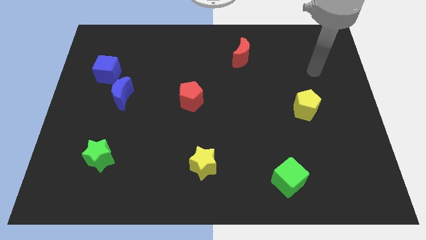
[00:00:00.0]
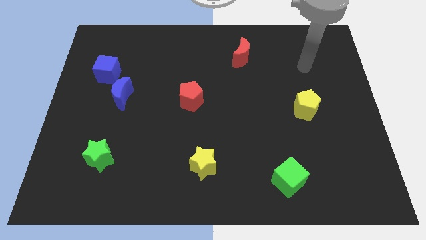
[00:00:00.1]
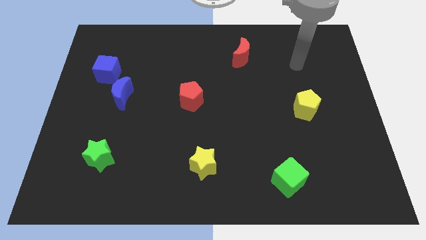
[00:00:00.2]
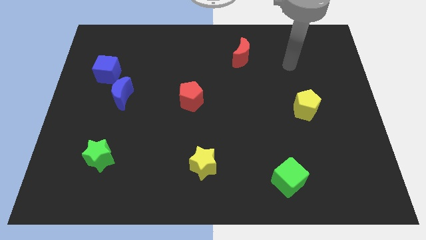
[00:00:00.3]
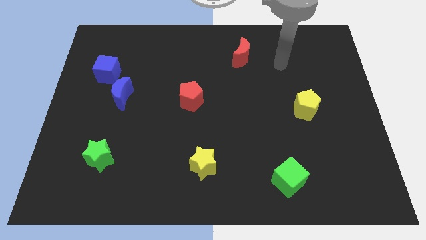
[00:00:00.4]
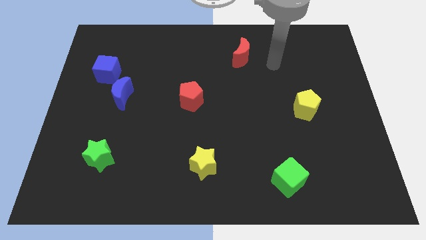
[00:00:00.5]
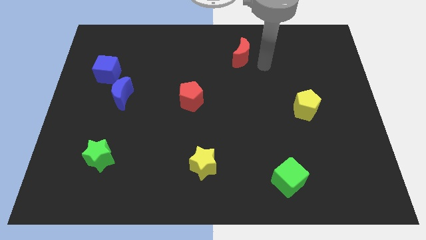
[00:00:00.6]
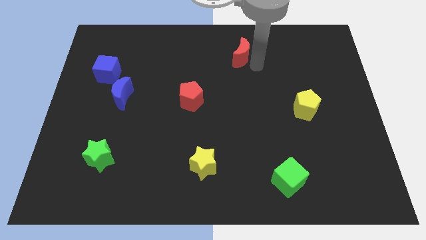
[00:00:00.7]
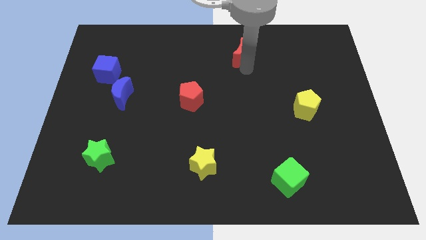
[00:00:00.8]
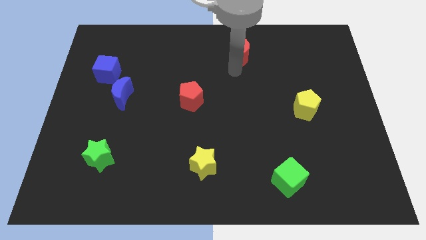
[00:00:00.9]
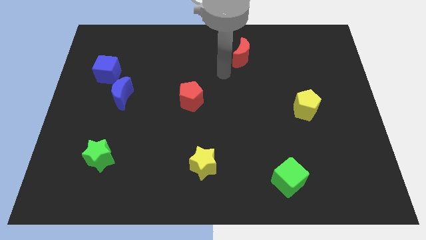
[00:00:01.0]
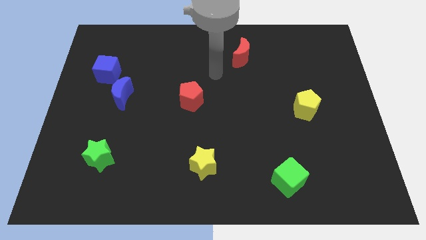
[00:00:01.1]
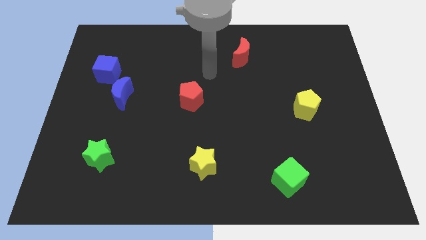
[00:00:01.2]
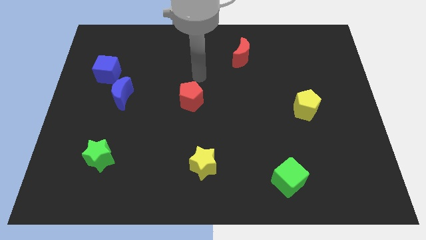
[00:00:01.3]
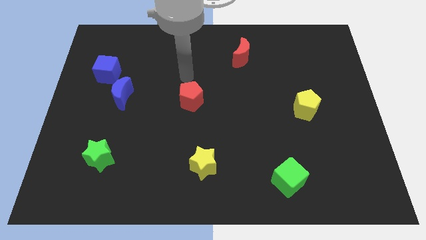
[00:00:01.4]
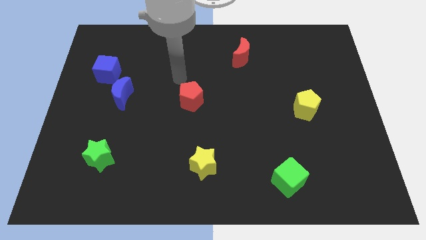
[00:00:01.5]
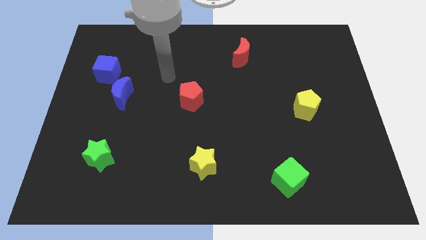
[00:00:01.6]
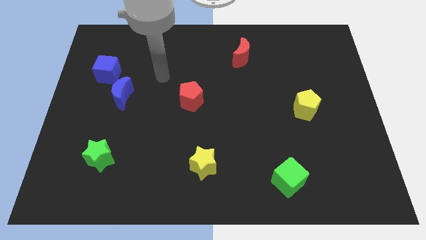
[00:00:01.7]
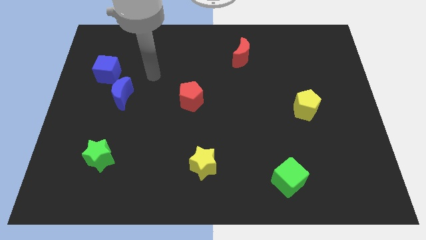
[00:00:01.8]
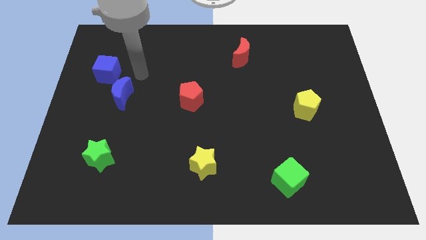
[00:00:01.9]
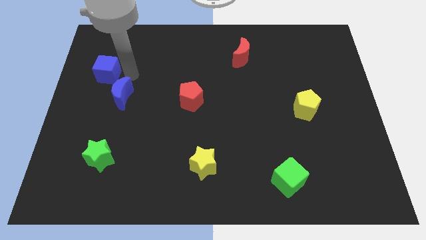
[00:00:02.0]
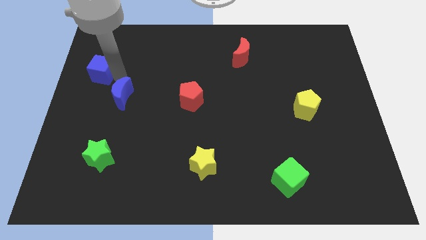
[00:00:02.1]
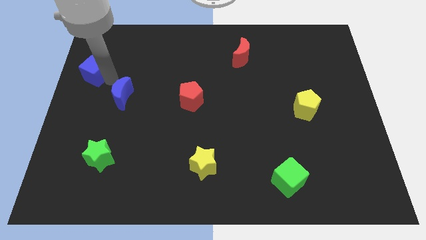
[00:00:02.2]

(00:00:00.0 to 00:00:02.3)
move the blue moon away from the blue cube

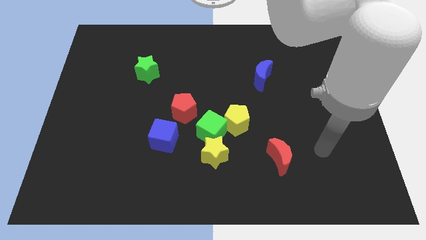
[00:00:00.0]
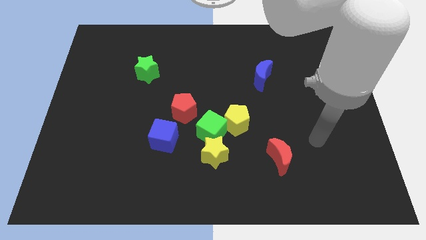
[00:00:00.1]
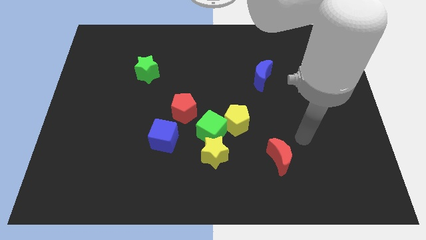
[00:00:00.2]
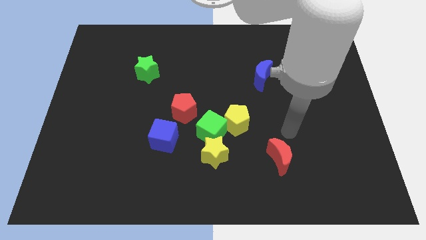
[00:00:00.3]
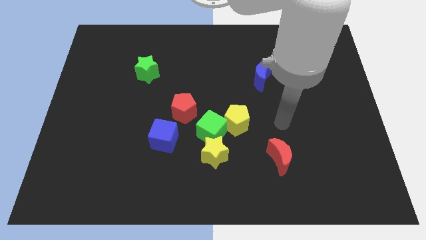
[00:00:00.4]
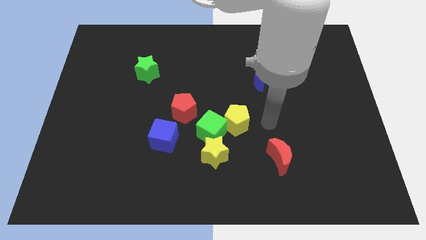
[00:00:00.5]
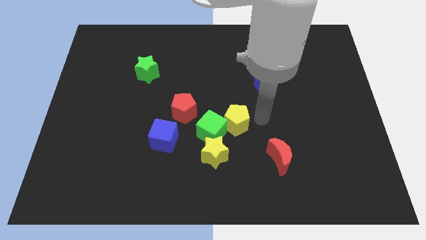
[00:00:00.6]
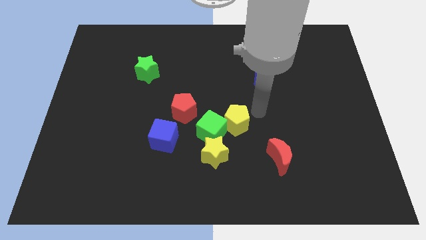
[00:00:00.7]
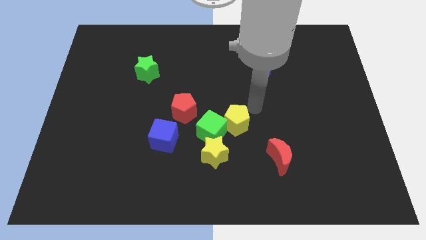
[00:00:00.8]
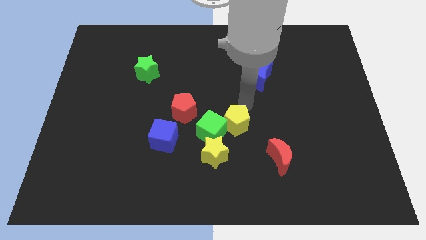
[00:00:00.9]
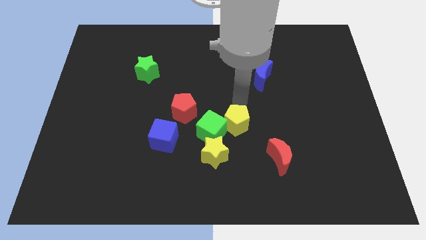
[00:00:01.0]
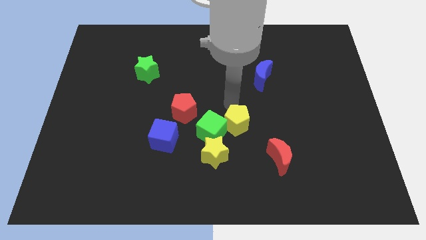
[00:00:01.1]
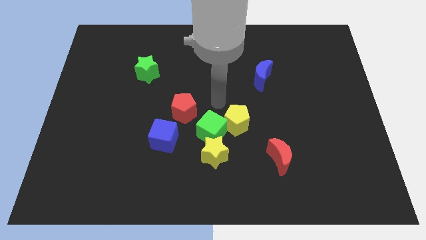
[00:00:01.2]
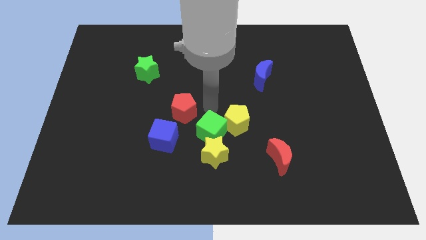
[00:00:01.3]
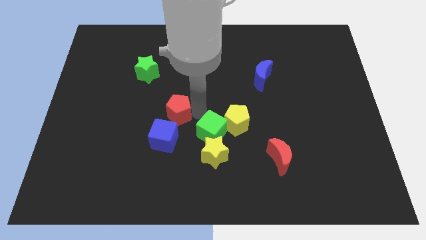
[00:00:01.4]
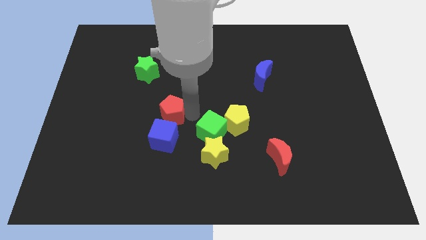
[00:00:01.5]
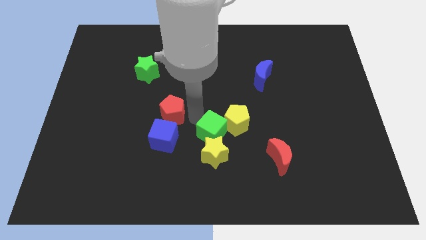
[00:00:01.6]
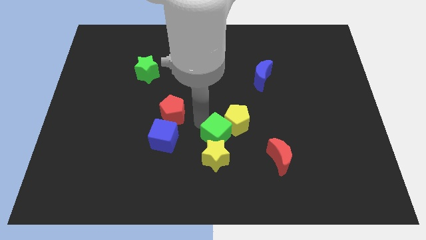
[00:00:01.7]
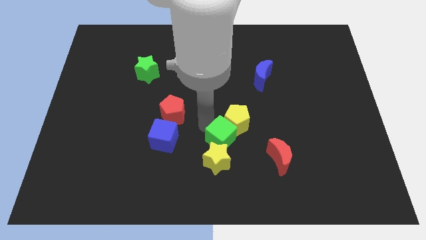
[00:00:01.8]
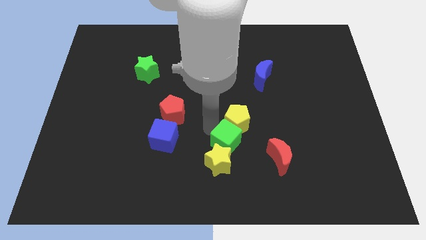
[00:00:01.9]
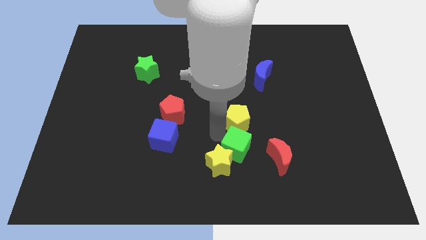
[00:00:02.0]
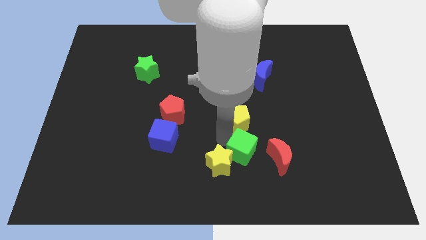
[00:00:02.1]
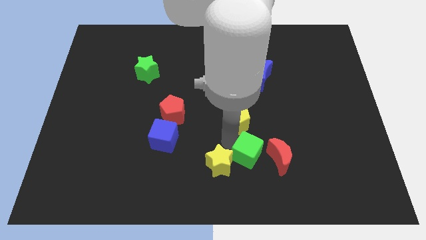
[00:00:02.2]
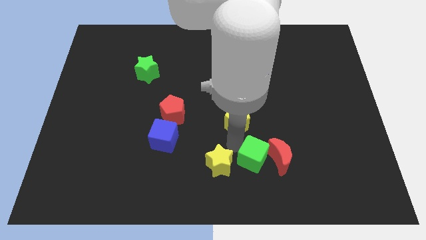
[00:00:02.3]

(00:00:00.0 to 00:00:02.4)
pull the green cube apart from the clump

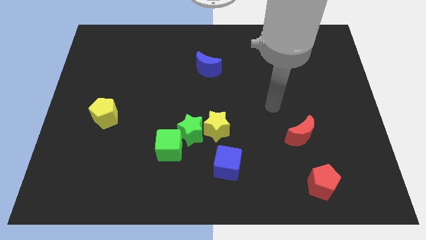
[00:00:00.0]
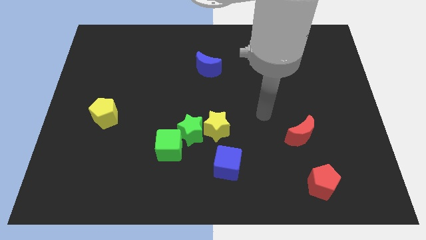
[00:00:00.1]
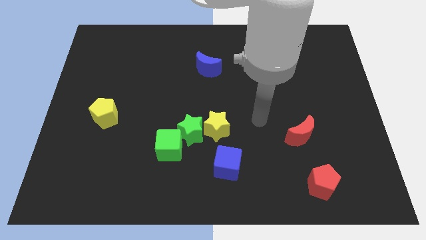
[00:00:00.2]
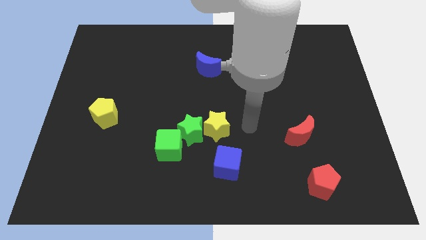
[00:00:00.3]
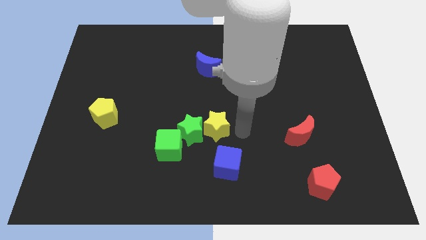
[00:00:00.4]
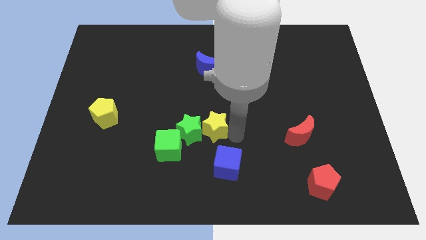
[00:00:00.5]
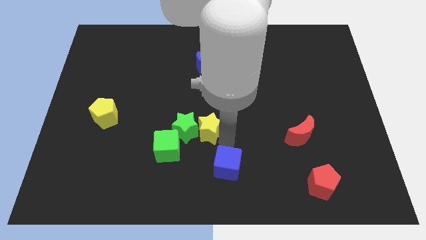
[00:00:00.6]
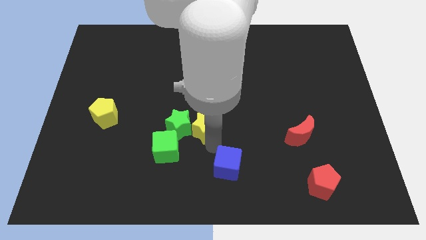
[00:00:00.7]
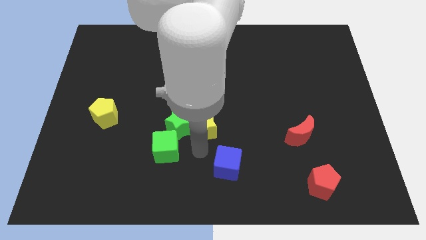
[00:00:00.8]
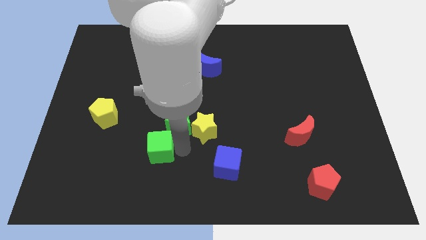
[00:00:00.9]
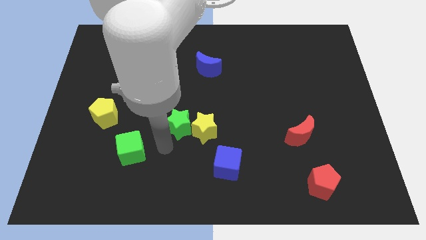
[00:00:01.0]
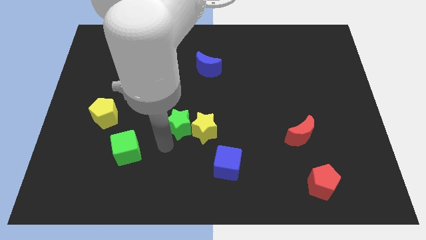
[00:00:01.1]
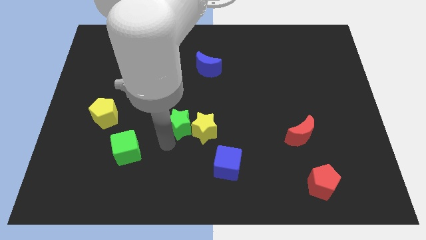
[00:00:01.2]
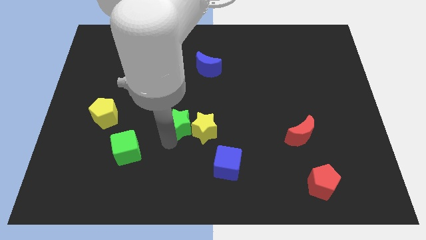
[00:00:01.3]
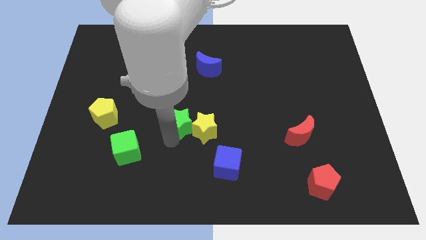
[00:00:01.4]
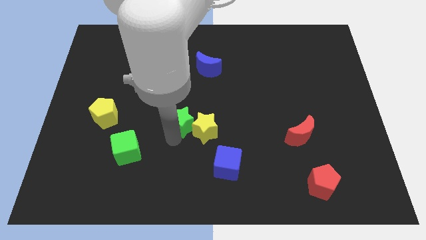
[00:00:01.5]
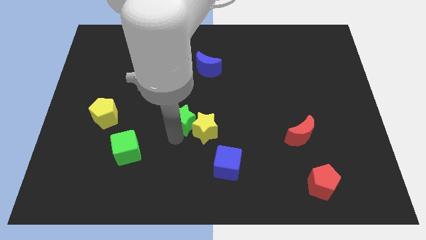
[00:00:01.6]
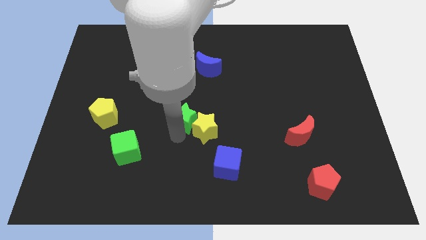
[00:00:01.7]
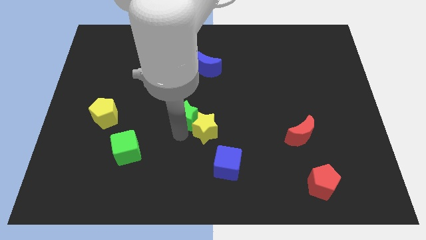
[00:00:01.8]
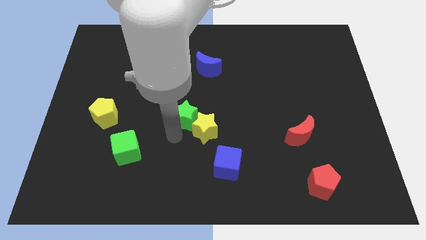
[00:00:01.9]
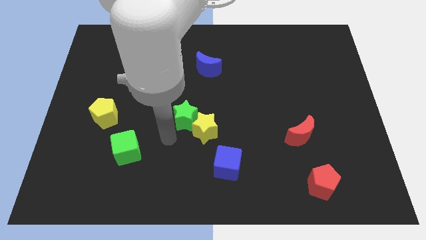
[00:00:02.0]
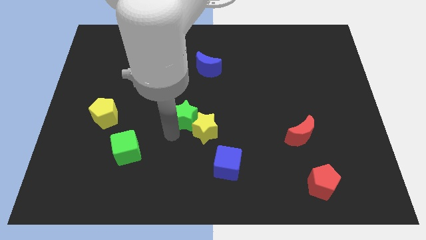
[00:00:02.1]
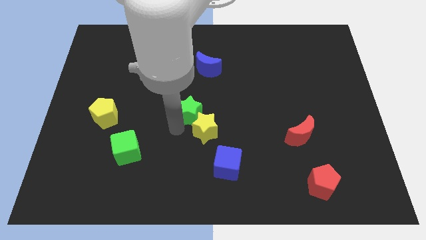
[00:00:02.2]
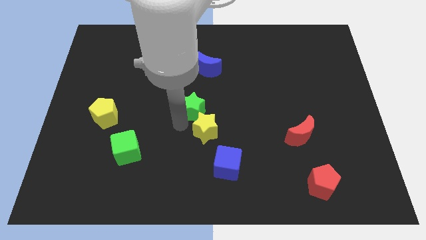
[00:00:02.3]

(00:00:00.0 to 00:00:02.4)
pull the green star apart from the yellow star and green cube

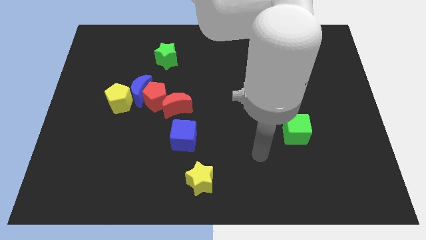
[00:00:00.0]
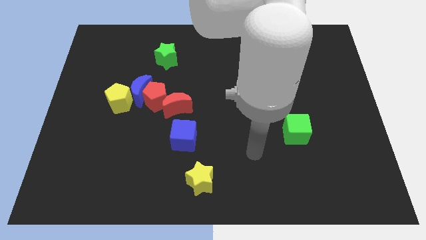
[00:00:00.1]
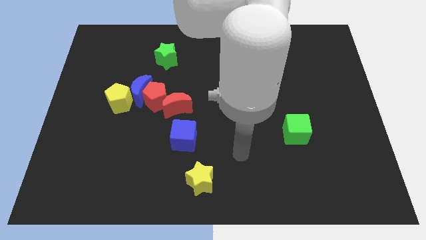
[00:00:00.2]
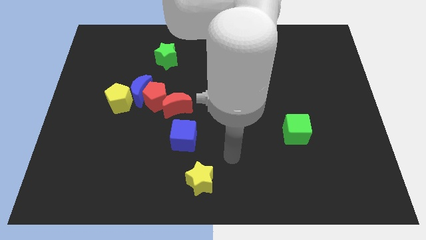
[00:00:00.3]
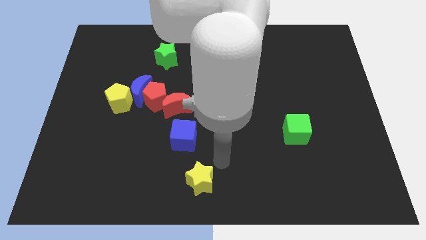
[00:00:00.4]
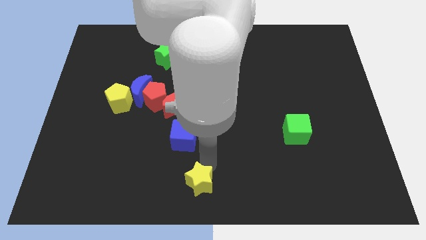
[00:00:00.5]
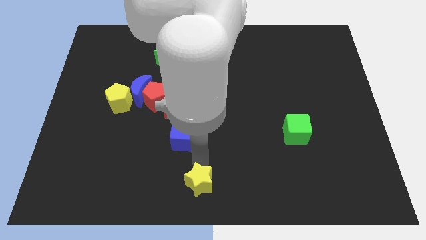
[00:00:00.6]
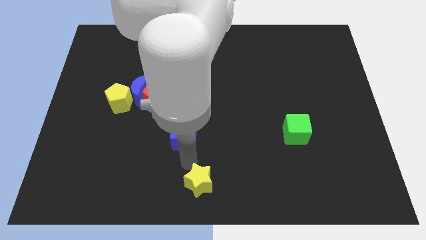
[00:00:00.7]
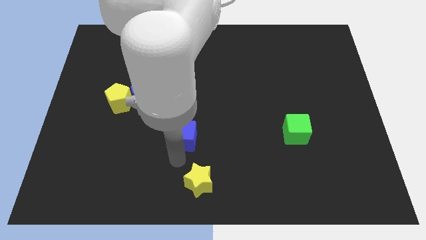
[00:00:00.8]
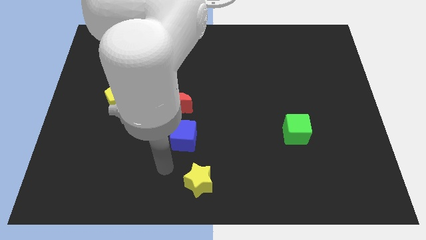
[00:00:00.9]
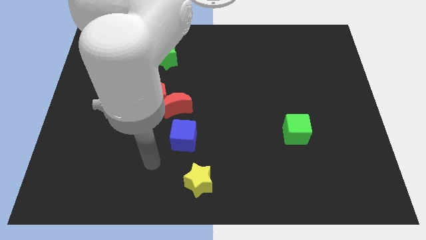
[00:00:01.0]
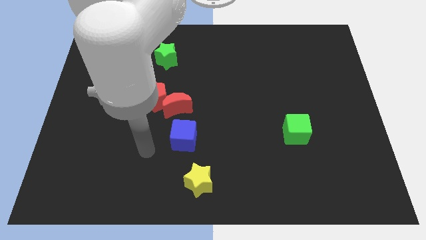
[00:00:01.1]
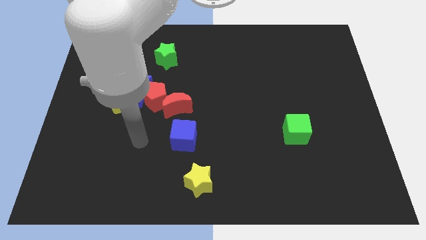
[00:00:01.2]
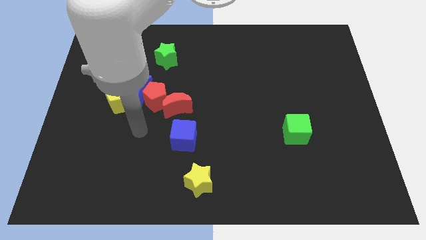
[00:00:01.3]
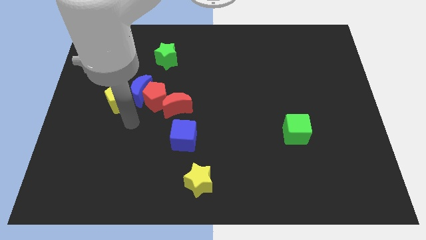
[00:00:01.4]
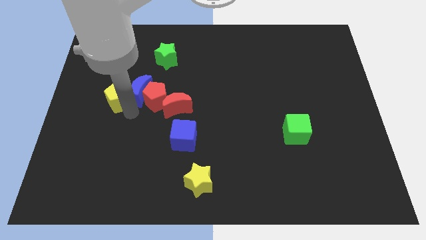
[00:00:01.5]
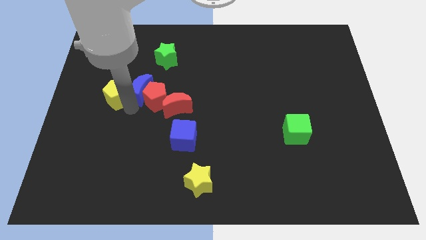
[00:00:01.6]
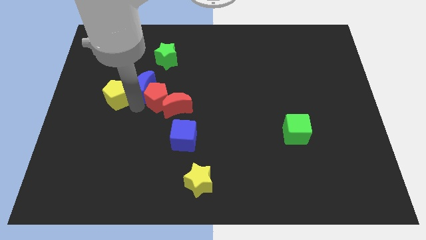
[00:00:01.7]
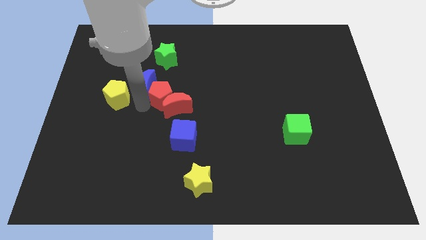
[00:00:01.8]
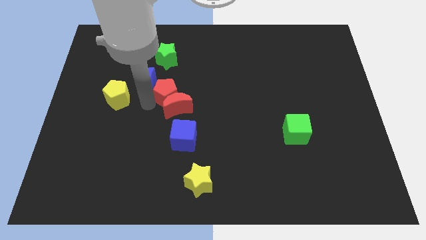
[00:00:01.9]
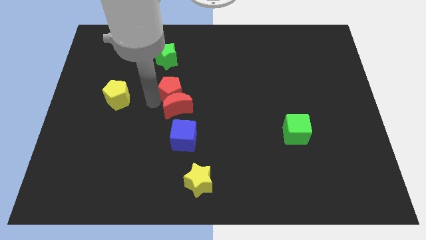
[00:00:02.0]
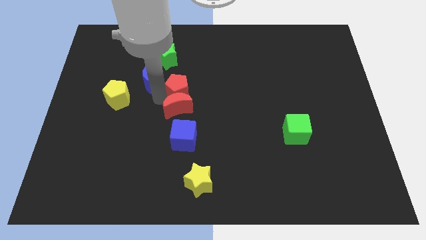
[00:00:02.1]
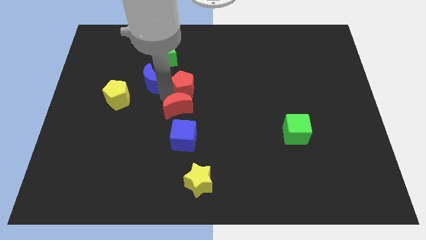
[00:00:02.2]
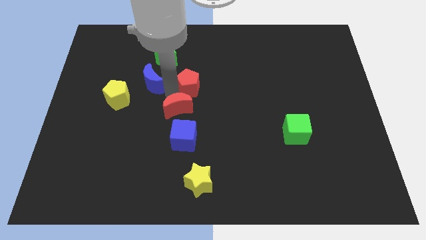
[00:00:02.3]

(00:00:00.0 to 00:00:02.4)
separate the red pentagon from the group of blocks
